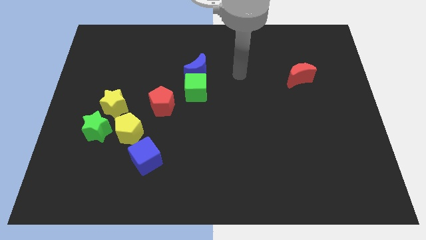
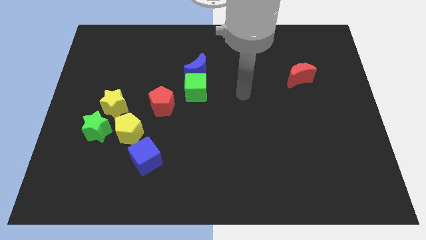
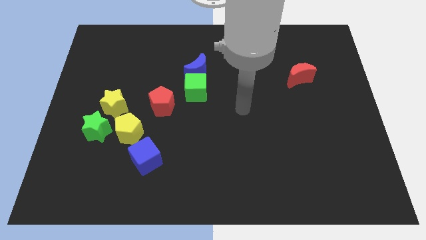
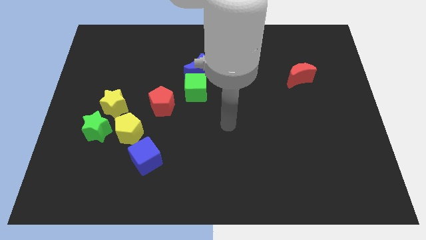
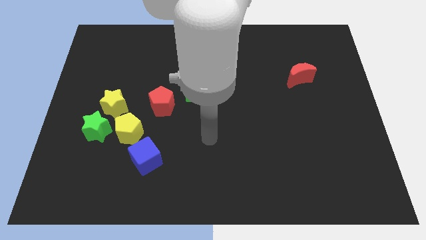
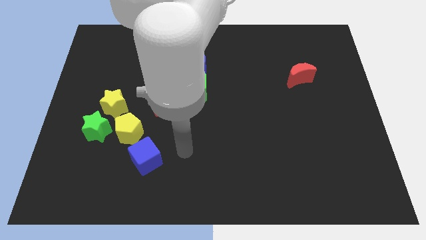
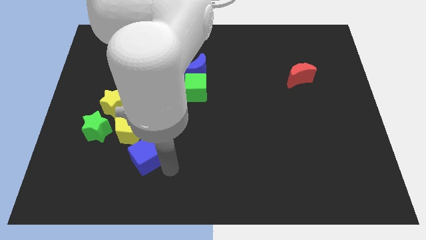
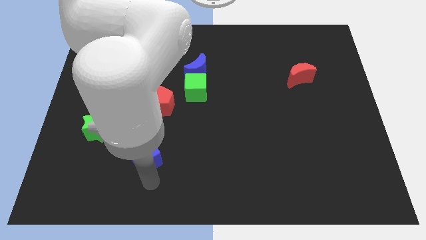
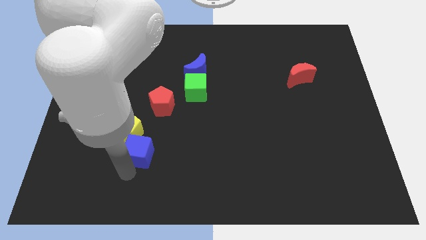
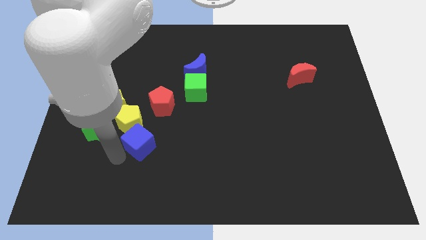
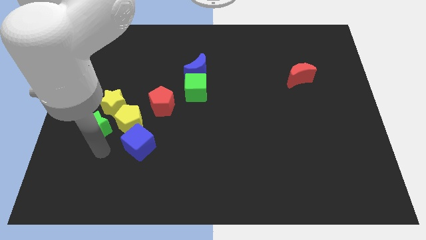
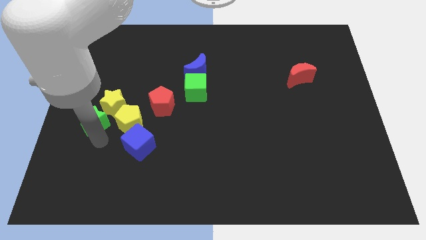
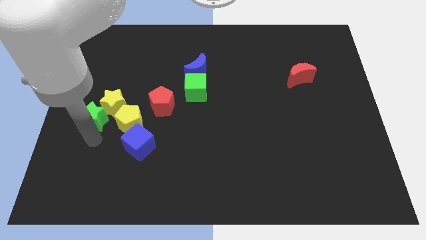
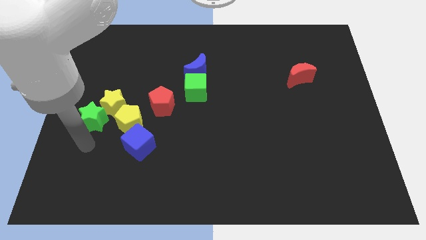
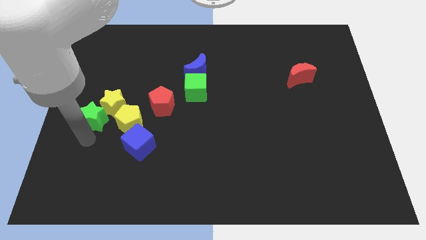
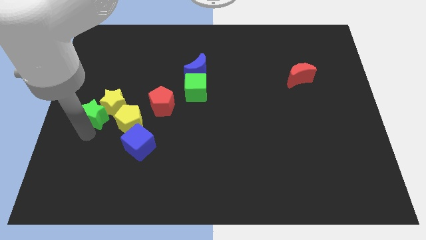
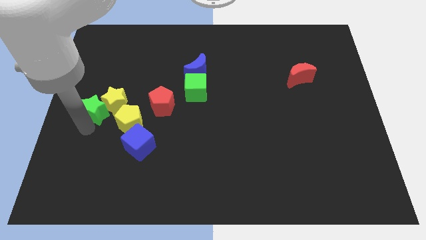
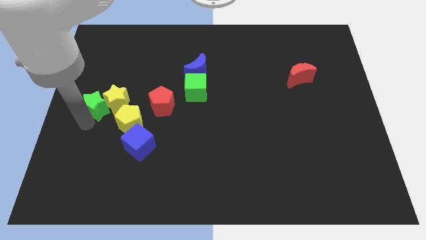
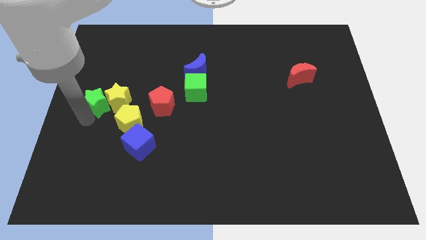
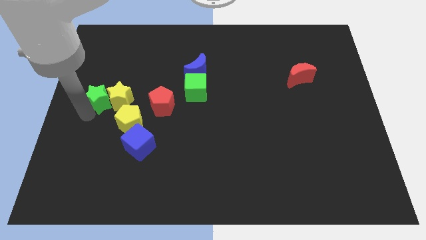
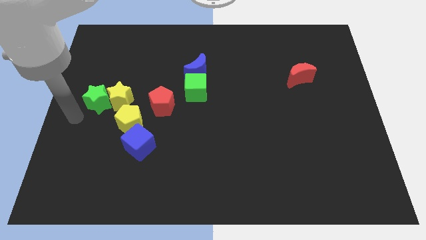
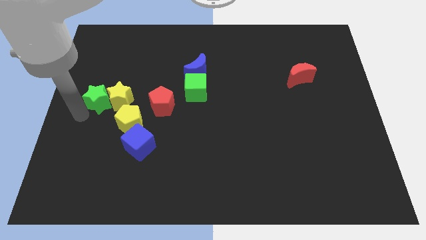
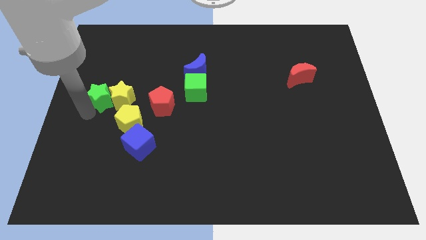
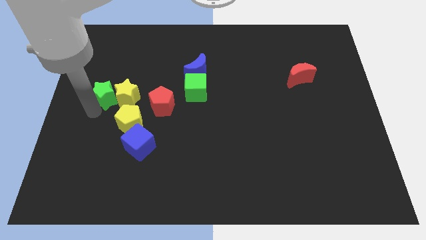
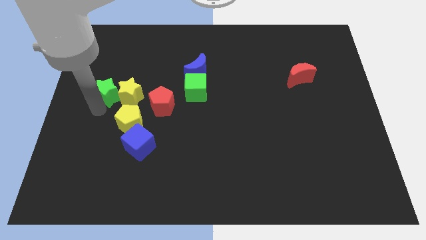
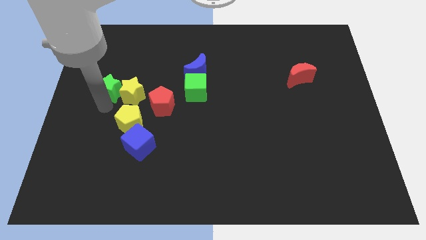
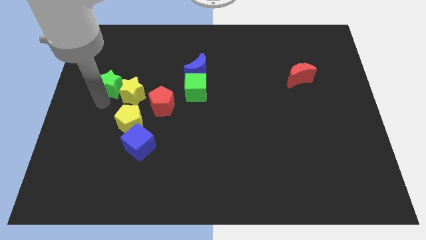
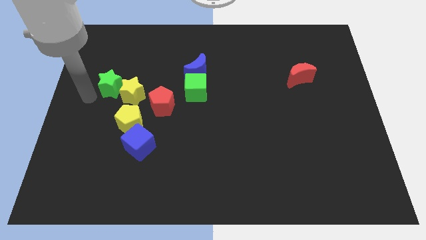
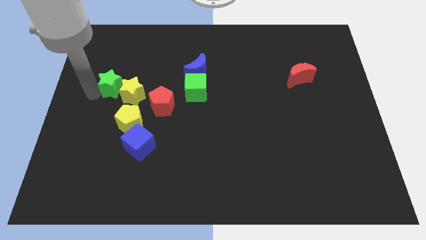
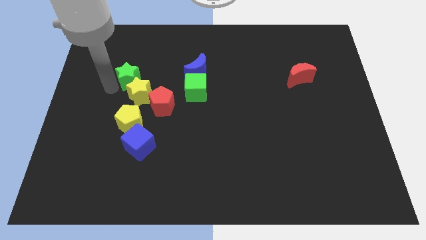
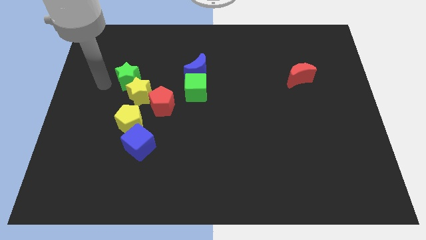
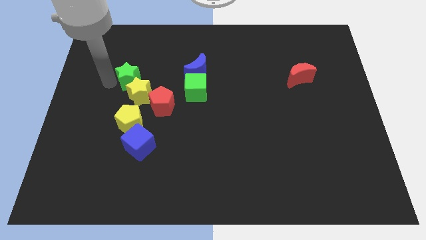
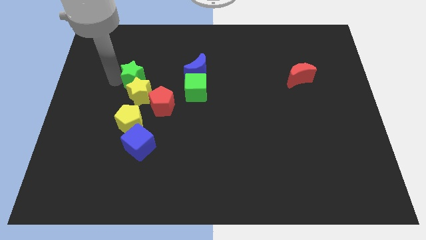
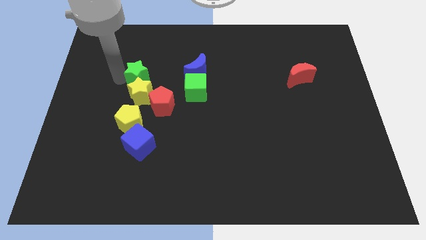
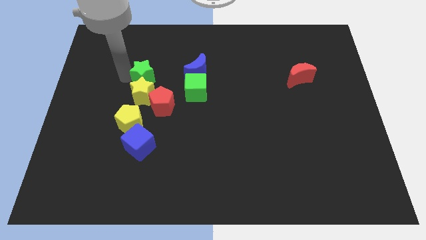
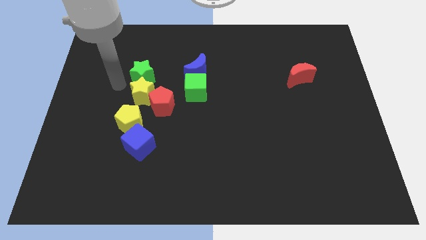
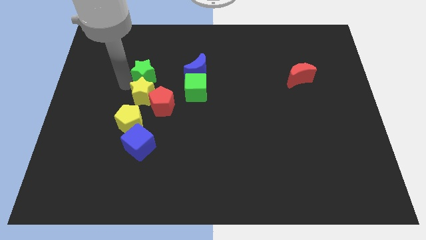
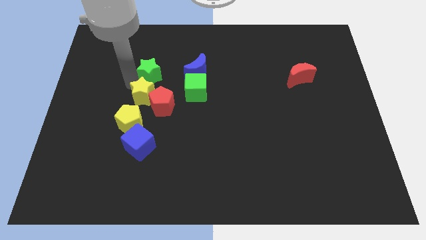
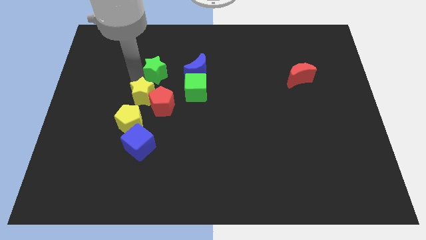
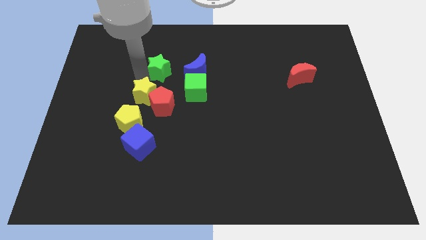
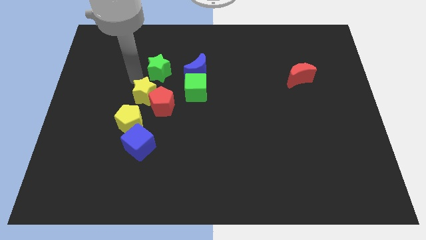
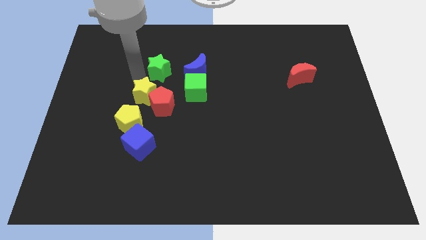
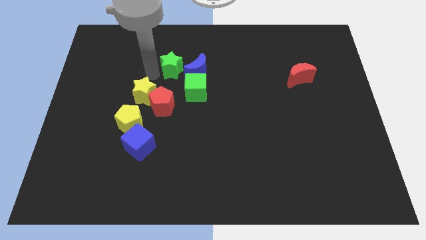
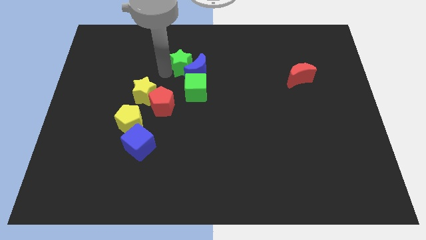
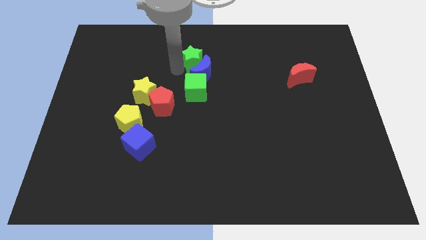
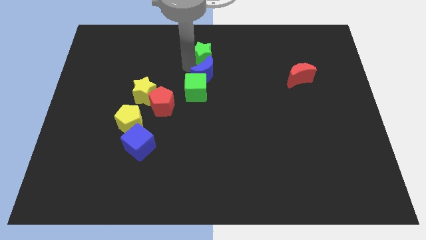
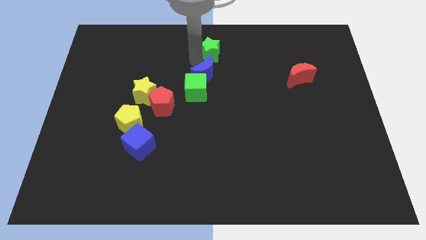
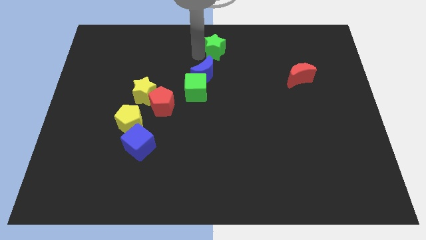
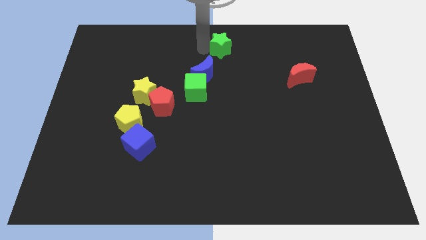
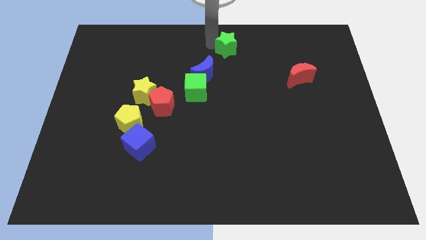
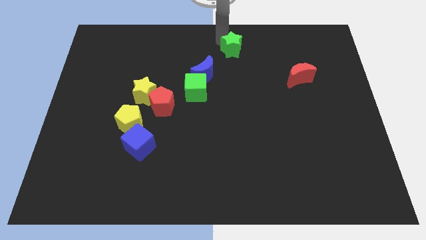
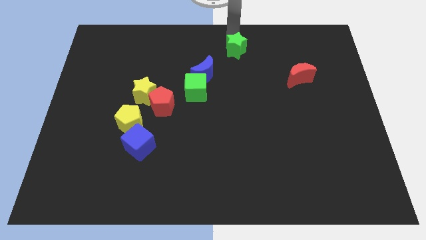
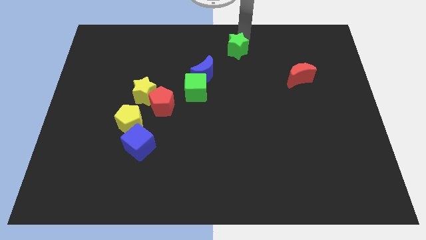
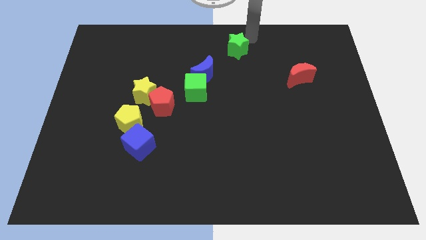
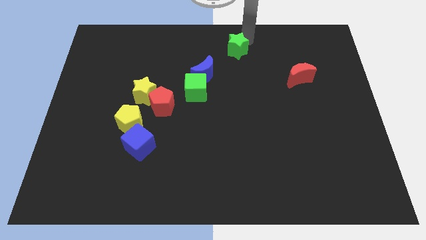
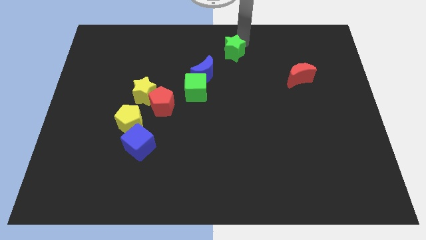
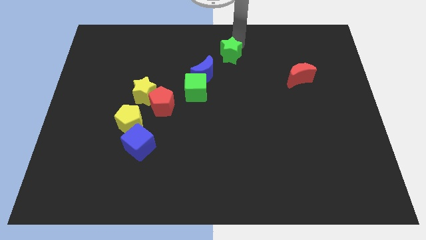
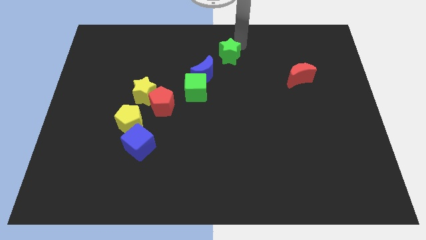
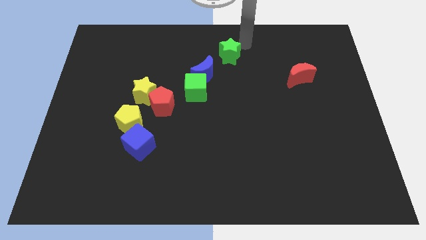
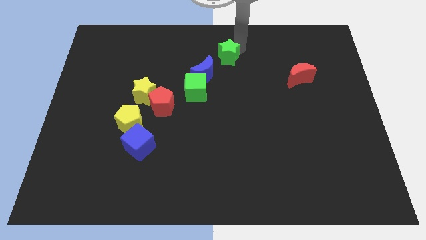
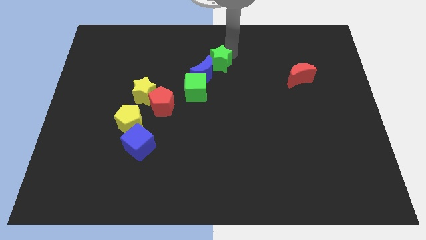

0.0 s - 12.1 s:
push the green star diagonally up and to the right of the green cube

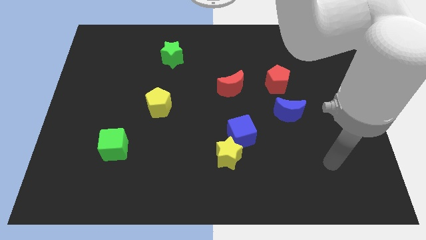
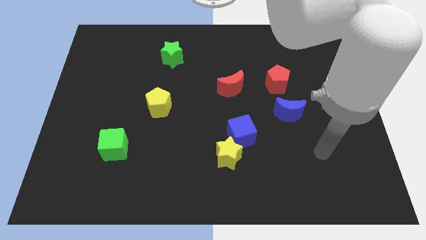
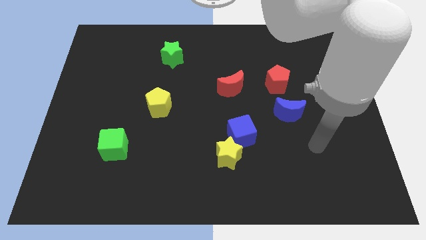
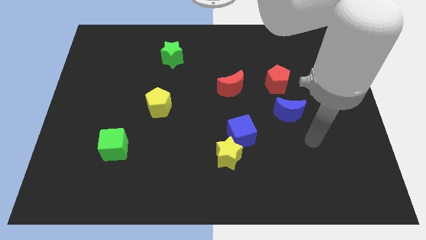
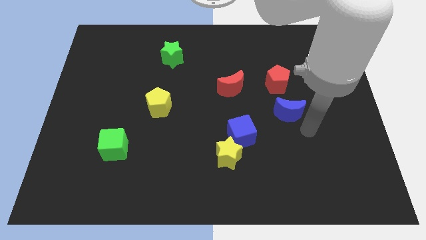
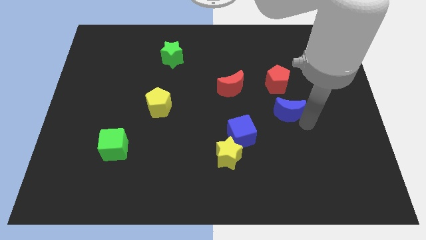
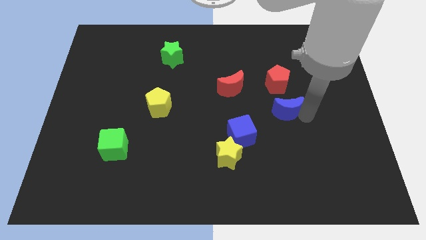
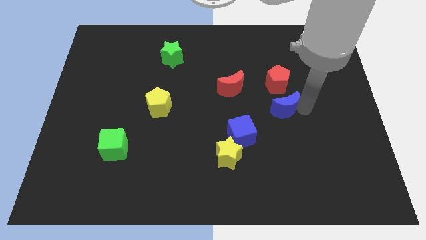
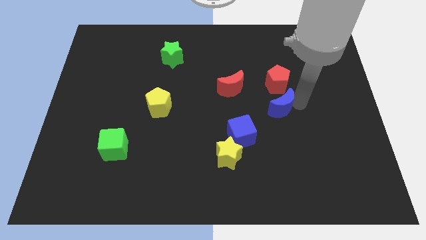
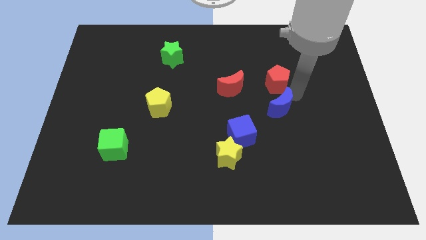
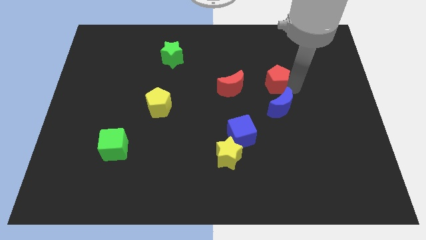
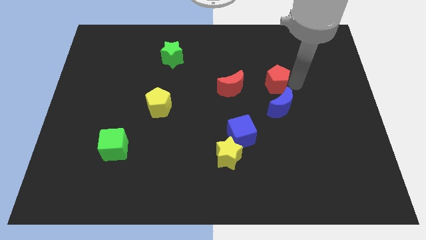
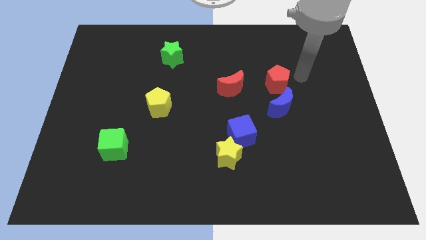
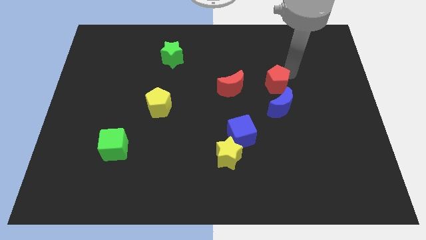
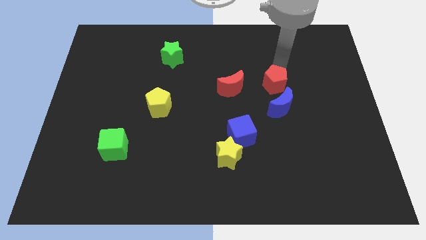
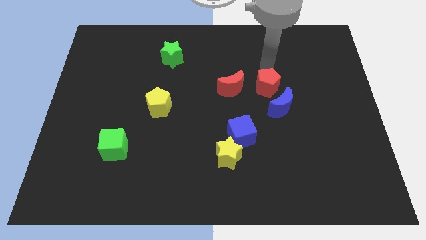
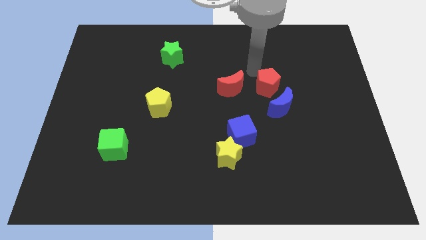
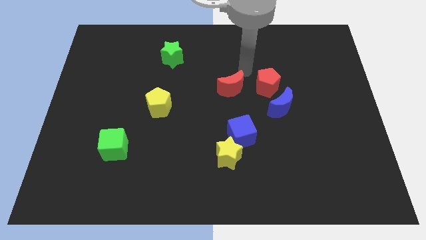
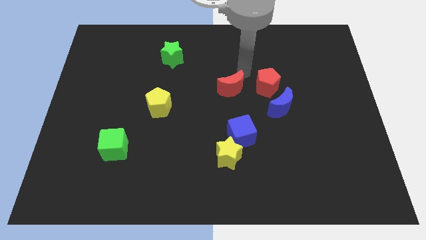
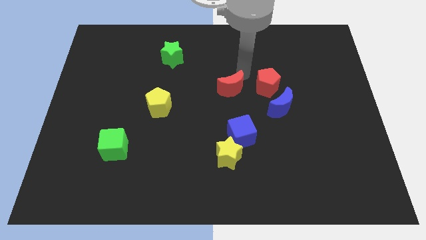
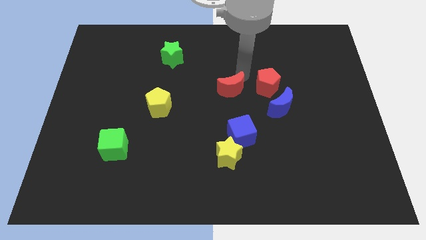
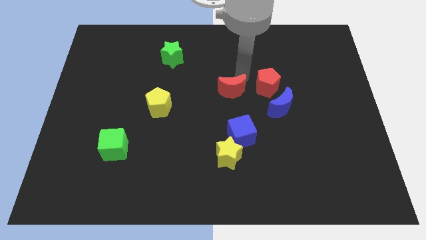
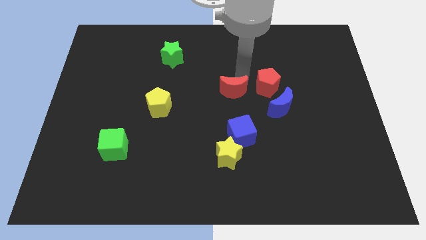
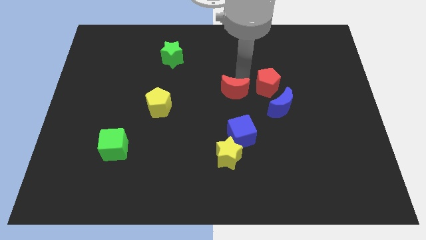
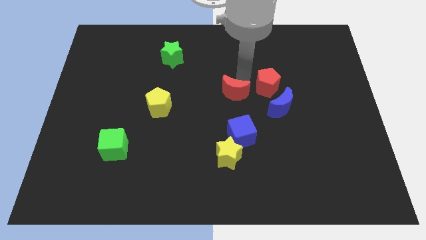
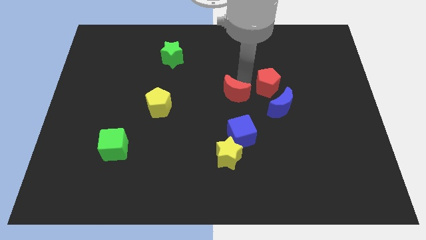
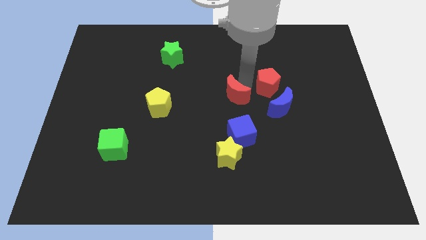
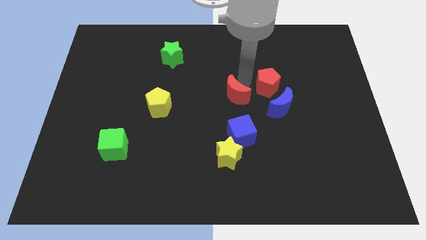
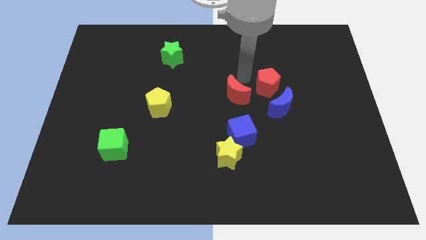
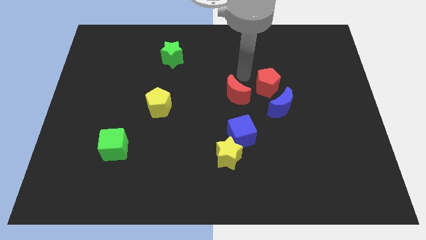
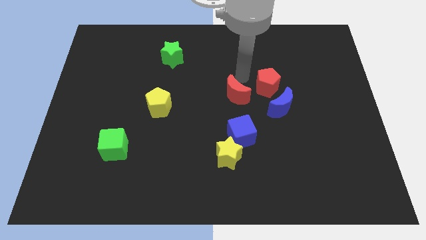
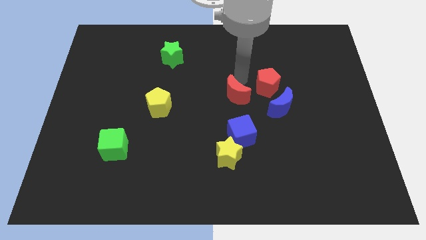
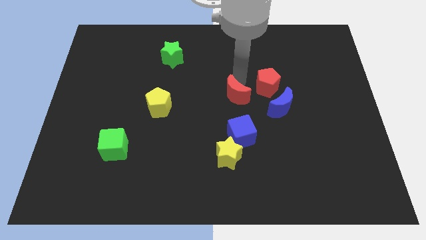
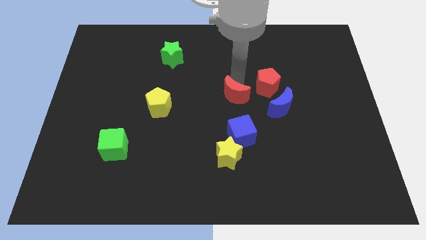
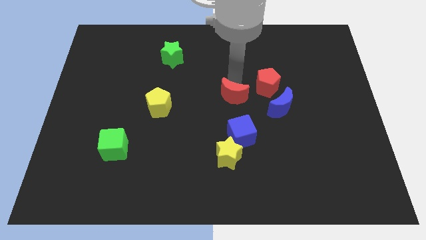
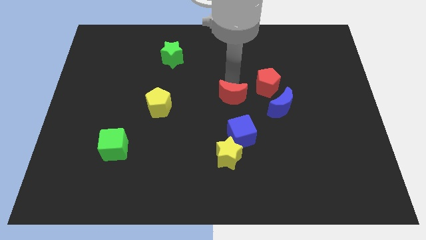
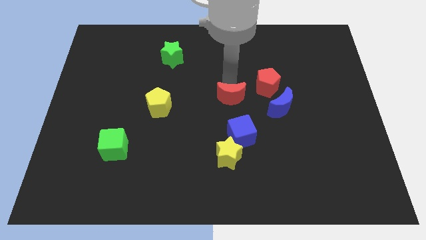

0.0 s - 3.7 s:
move the red moon to the top side of the yellow star
